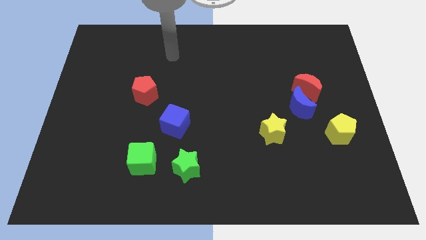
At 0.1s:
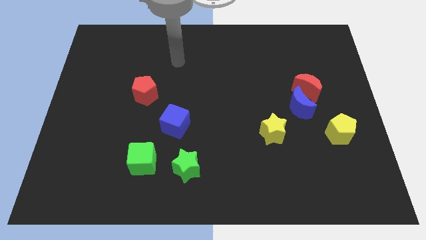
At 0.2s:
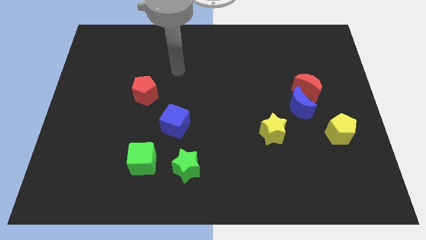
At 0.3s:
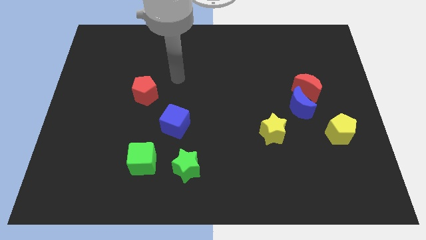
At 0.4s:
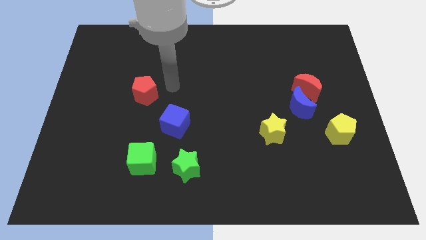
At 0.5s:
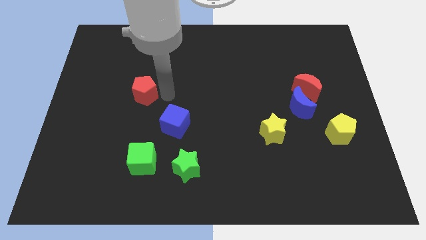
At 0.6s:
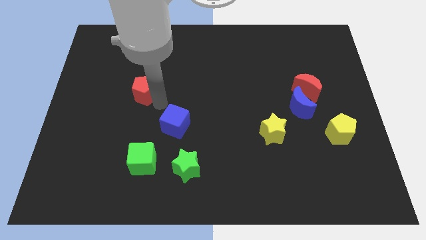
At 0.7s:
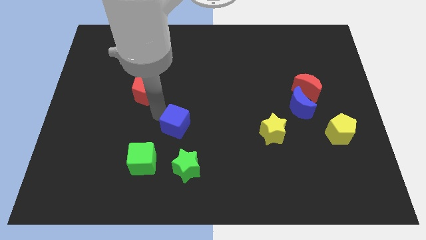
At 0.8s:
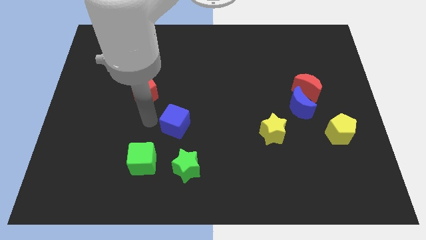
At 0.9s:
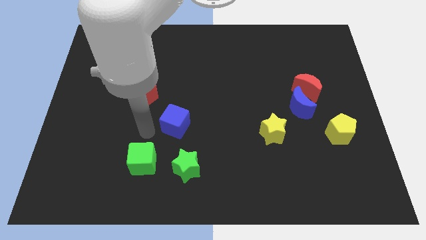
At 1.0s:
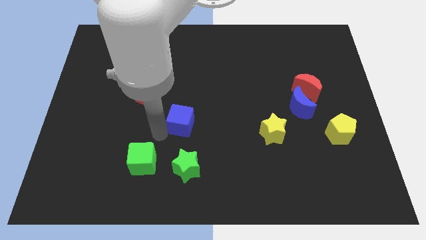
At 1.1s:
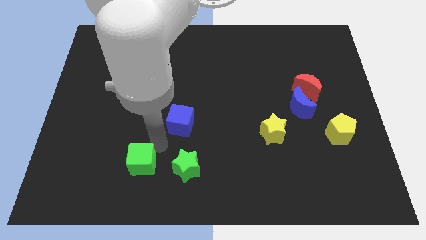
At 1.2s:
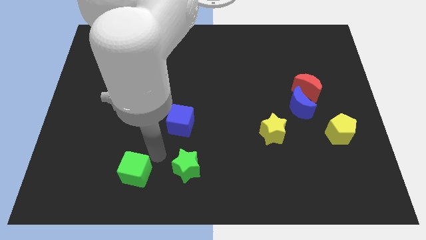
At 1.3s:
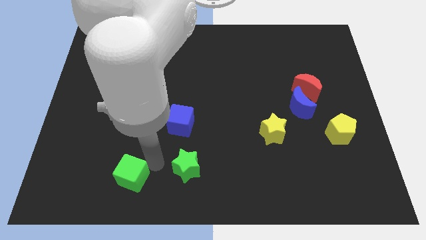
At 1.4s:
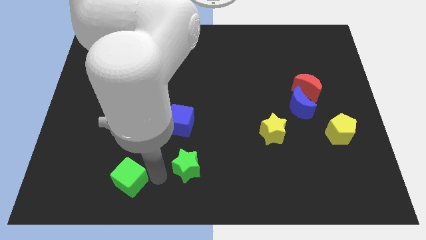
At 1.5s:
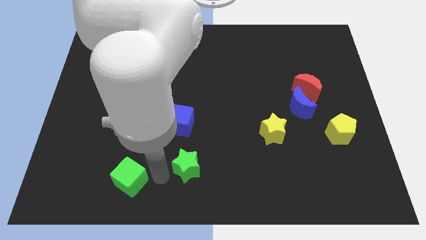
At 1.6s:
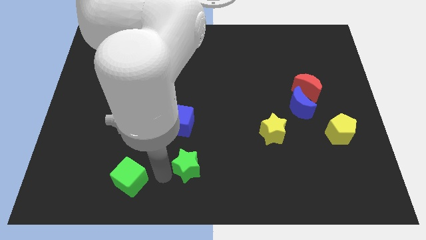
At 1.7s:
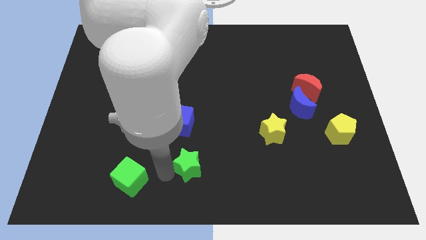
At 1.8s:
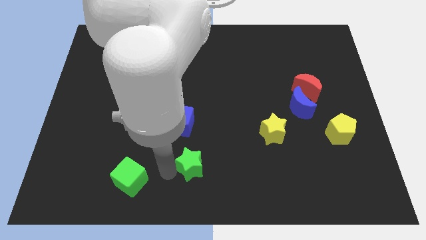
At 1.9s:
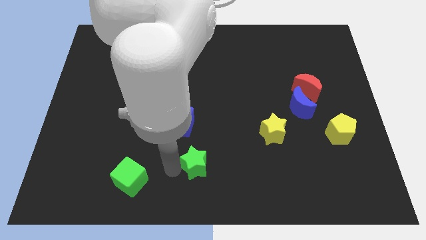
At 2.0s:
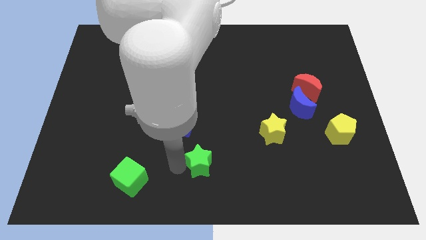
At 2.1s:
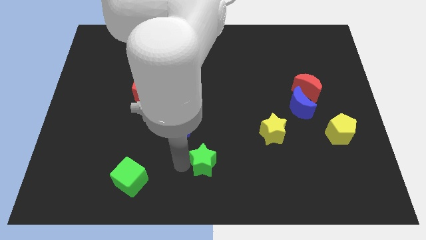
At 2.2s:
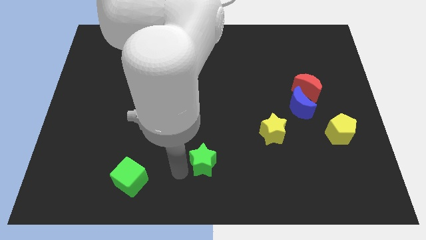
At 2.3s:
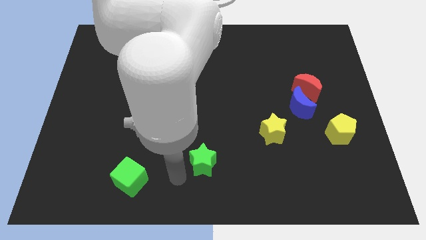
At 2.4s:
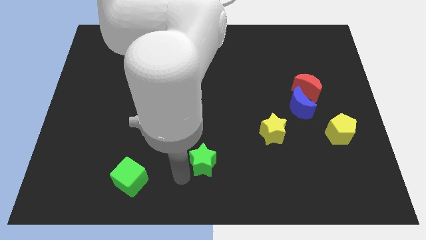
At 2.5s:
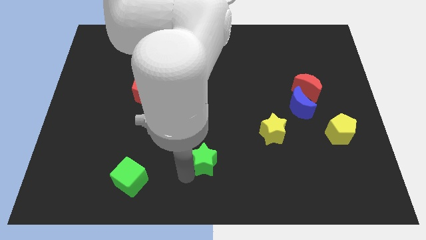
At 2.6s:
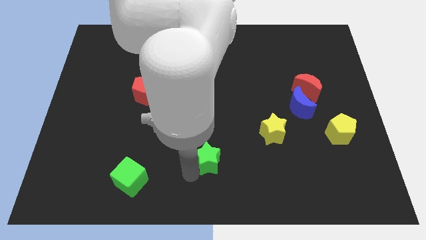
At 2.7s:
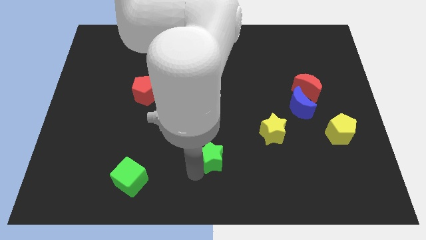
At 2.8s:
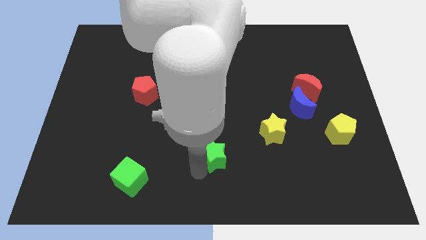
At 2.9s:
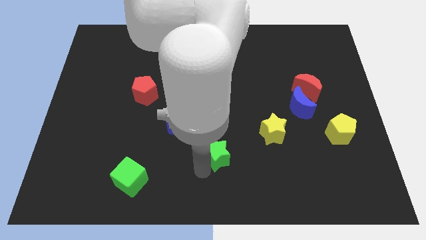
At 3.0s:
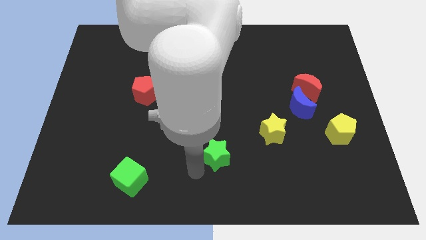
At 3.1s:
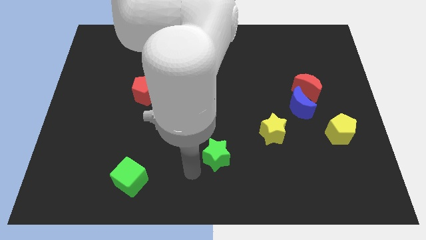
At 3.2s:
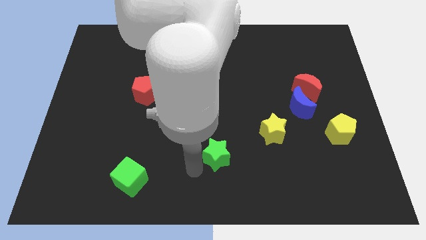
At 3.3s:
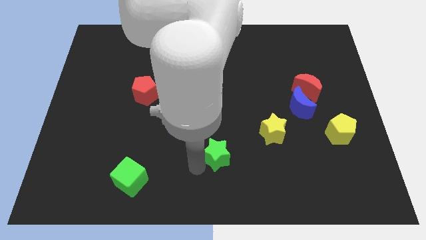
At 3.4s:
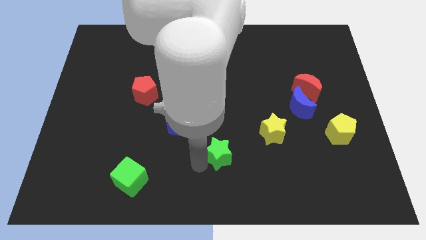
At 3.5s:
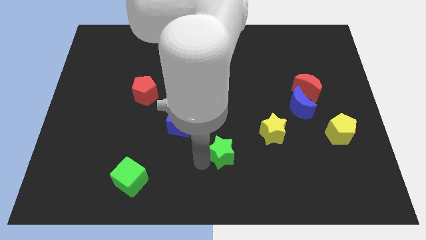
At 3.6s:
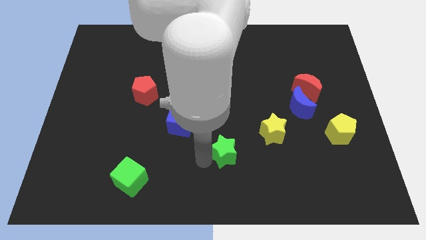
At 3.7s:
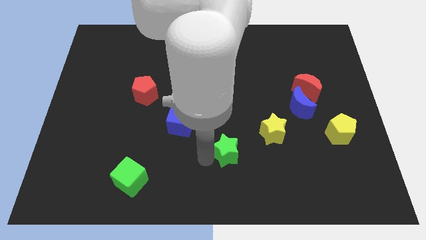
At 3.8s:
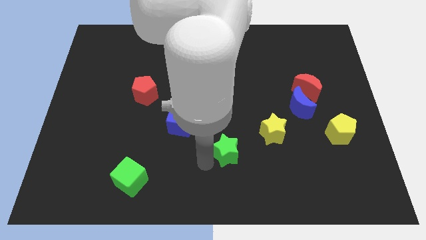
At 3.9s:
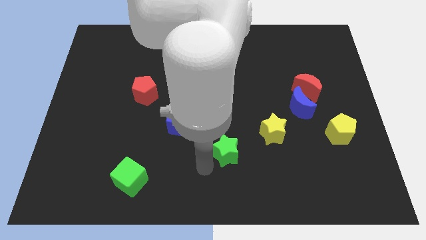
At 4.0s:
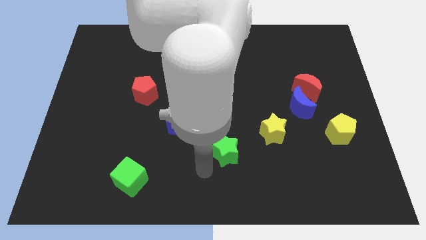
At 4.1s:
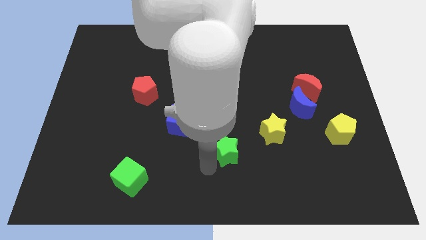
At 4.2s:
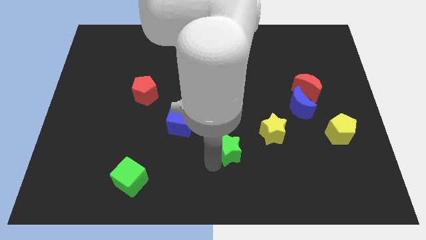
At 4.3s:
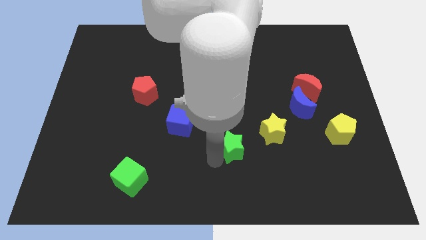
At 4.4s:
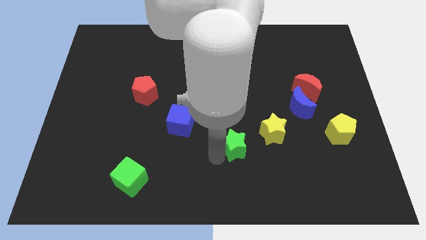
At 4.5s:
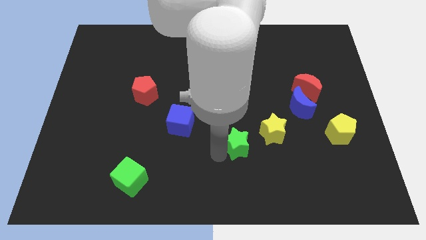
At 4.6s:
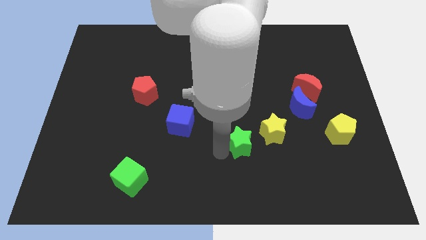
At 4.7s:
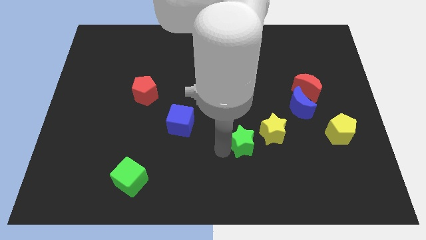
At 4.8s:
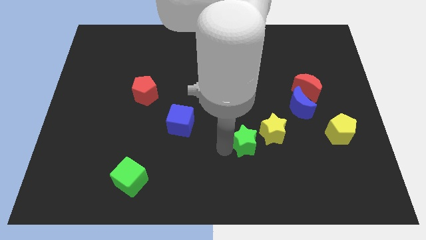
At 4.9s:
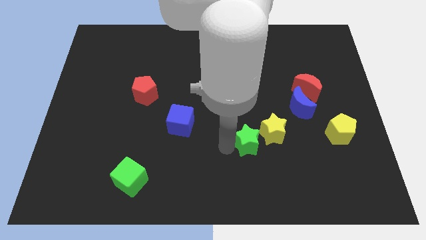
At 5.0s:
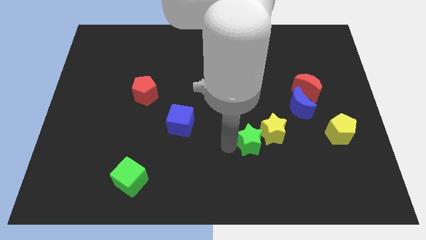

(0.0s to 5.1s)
push the green star close to the yellow star

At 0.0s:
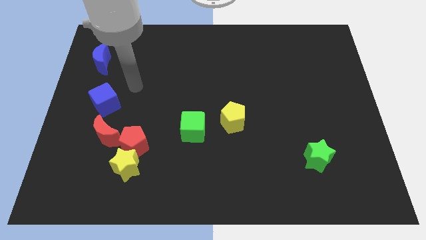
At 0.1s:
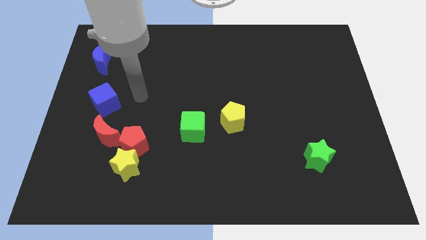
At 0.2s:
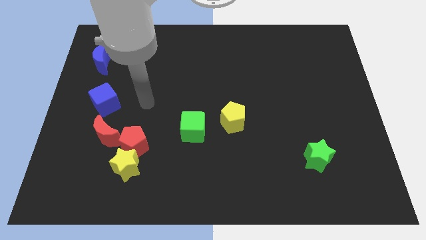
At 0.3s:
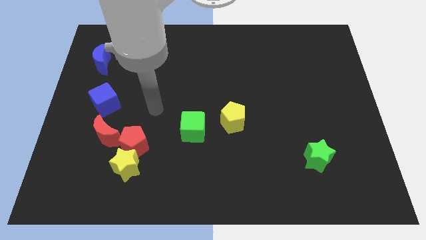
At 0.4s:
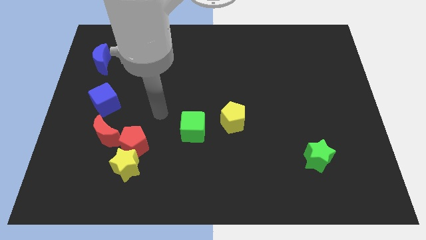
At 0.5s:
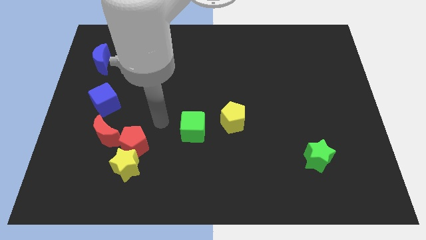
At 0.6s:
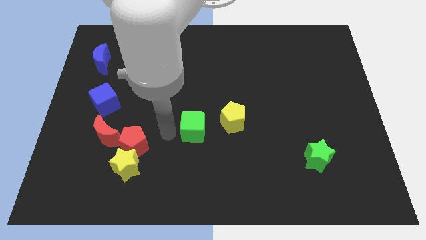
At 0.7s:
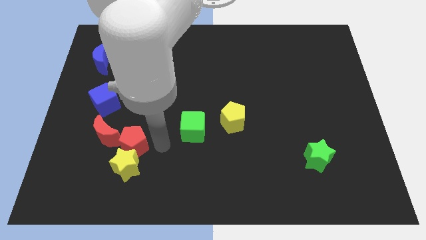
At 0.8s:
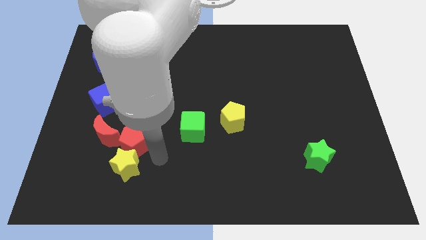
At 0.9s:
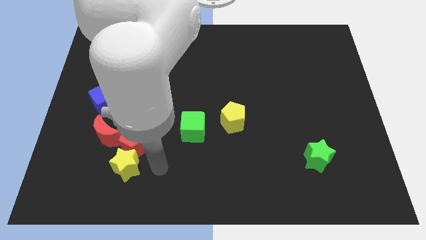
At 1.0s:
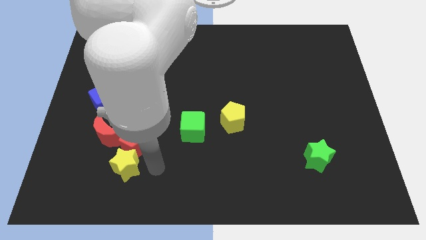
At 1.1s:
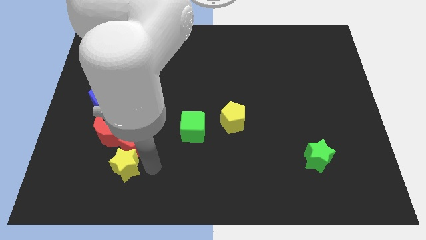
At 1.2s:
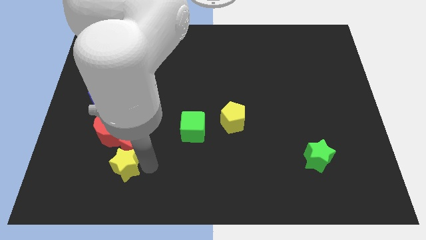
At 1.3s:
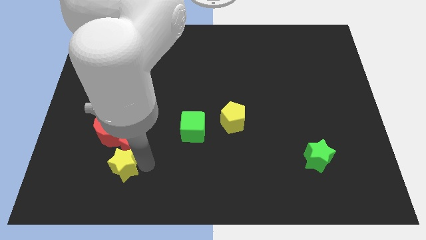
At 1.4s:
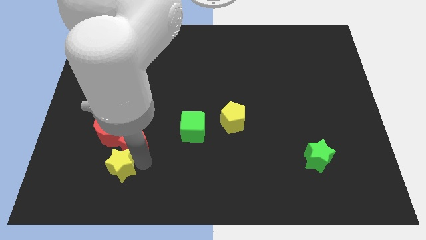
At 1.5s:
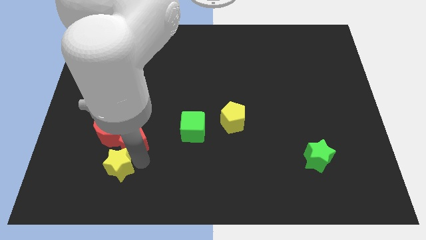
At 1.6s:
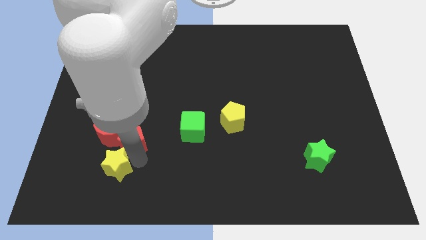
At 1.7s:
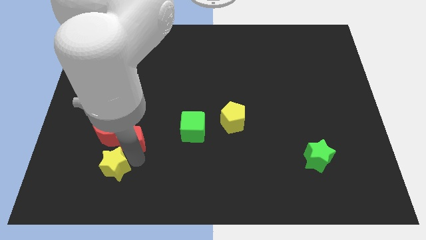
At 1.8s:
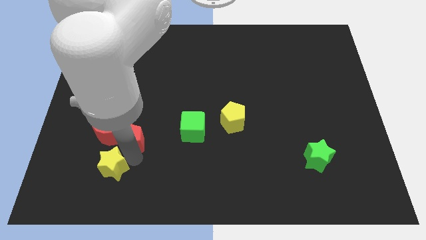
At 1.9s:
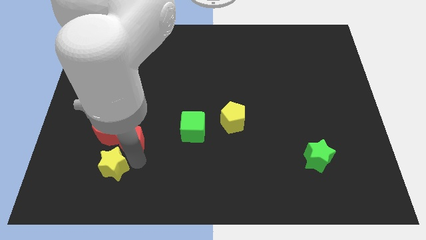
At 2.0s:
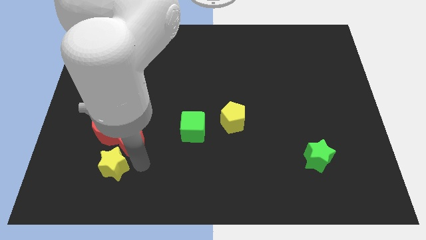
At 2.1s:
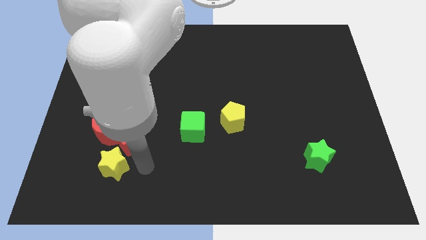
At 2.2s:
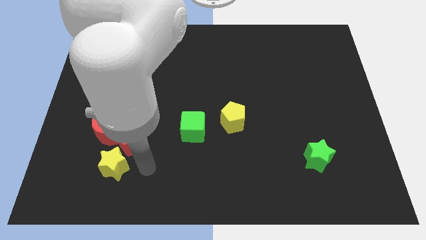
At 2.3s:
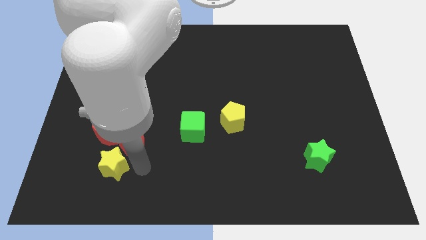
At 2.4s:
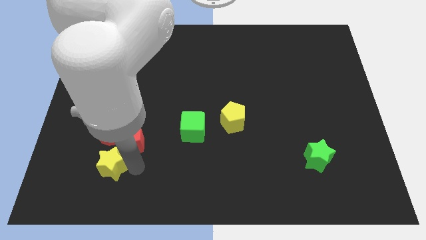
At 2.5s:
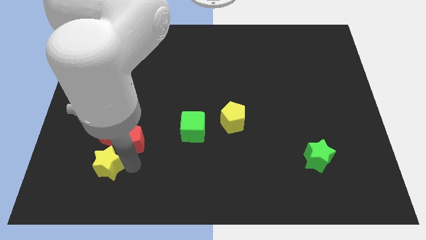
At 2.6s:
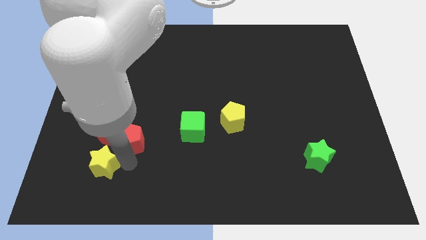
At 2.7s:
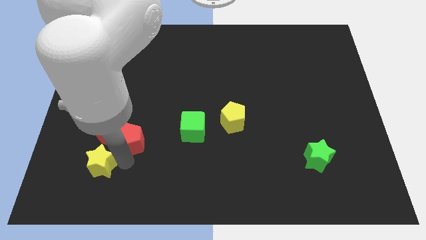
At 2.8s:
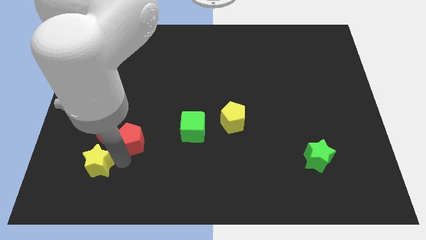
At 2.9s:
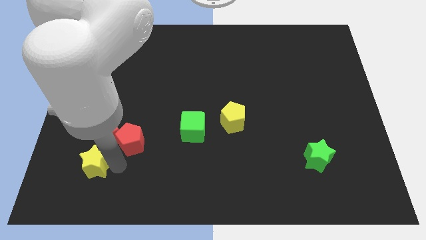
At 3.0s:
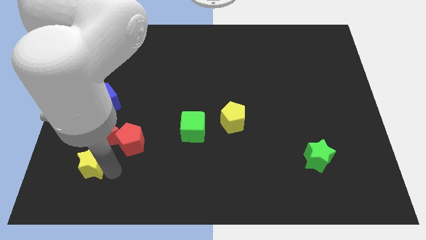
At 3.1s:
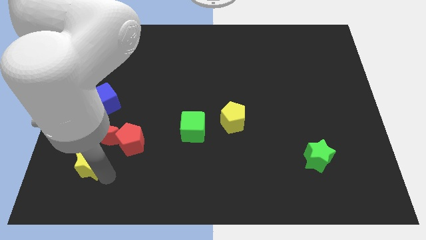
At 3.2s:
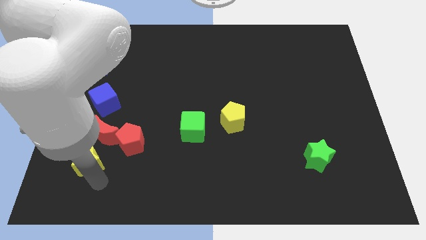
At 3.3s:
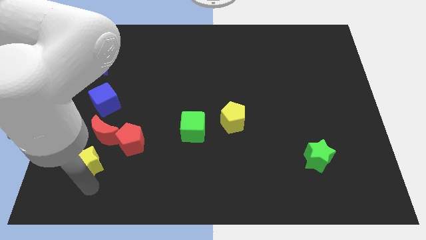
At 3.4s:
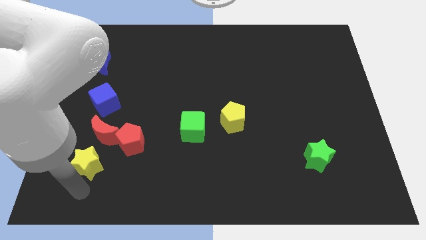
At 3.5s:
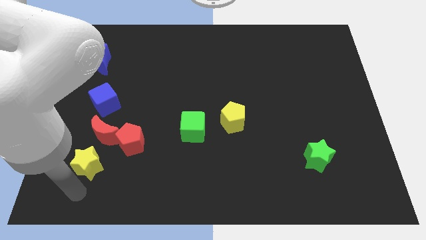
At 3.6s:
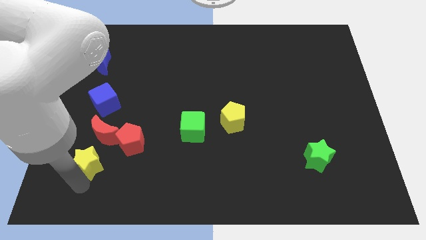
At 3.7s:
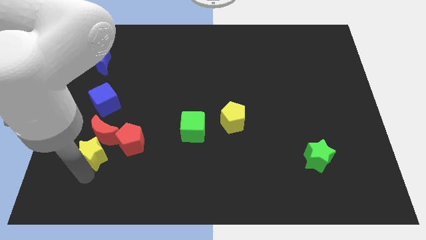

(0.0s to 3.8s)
put the yellow star to the red moon
